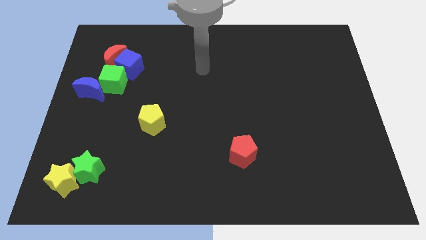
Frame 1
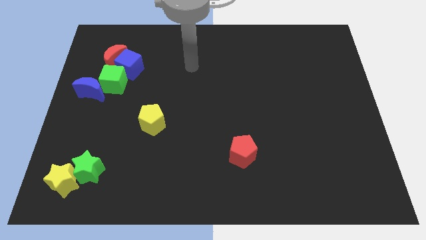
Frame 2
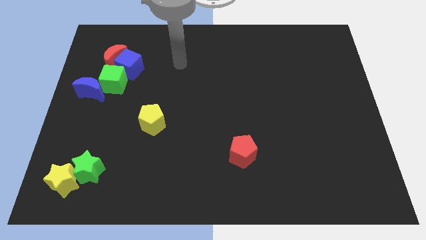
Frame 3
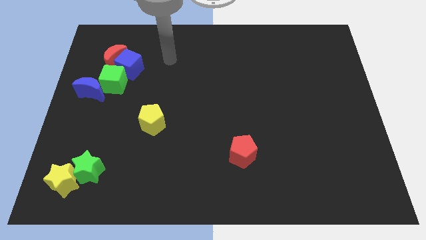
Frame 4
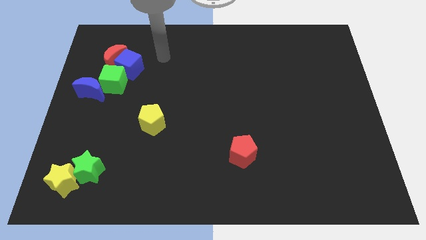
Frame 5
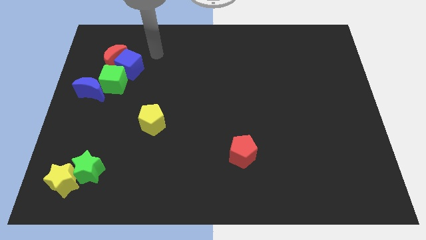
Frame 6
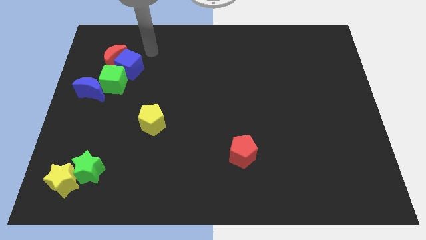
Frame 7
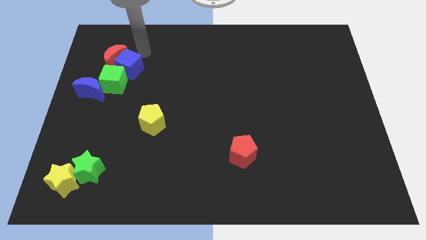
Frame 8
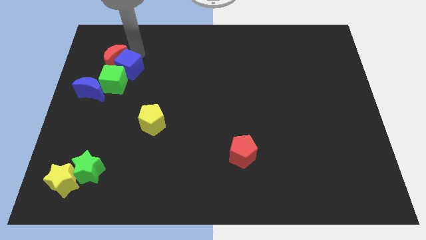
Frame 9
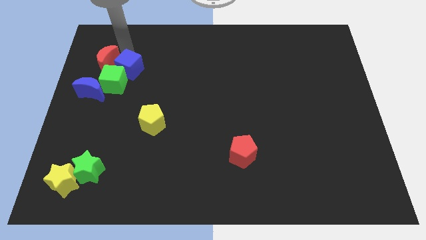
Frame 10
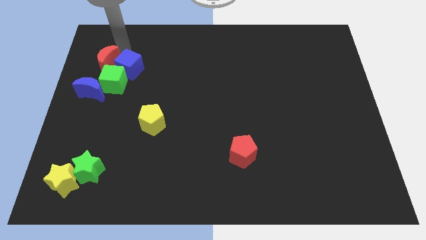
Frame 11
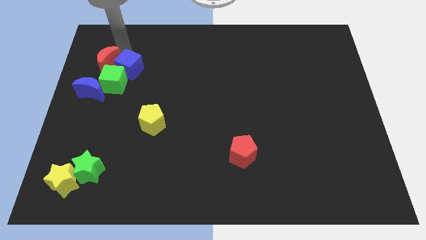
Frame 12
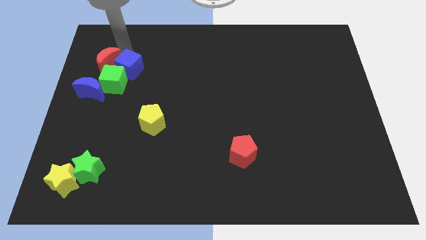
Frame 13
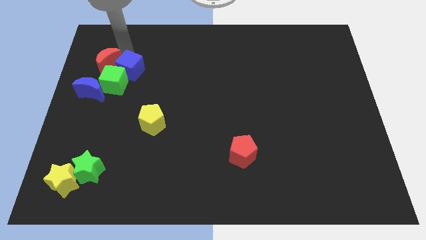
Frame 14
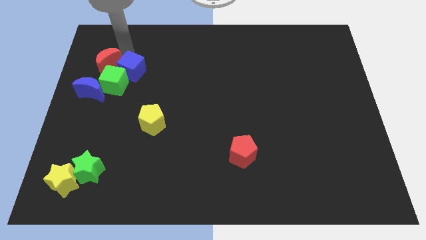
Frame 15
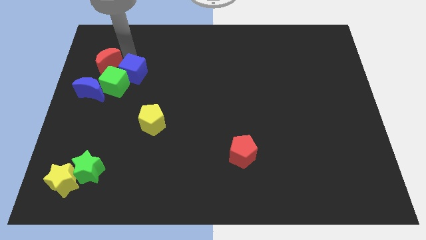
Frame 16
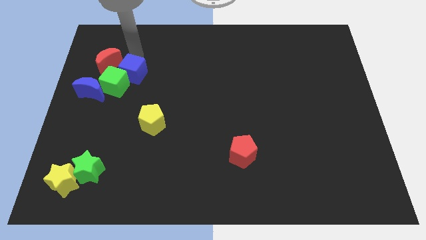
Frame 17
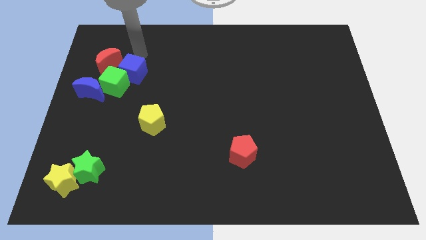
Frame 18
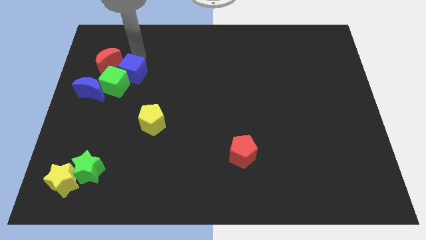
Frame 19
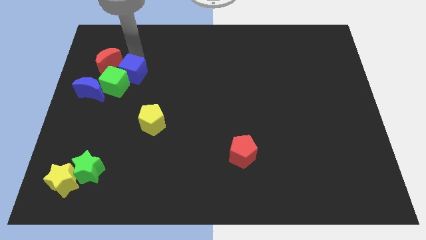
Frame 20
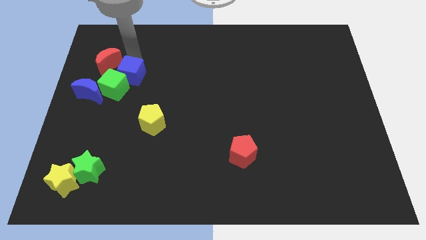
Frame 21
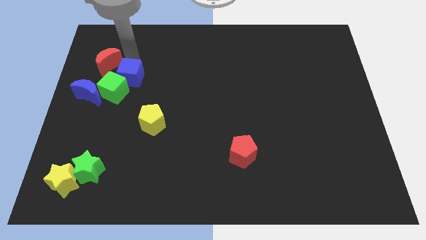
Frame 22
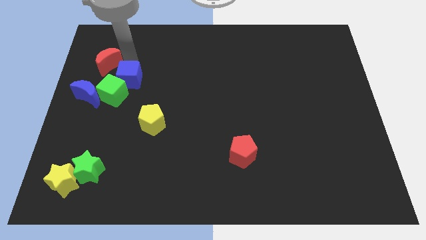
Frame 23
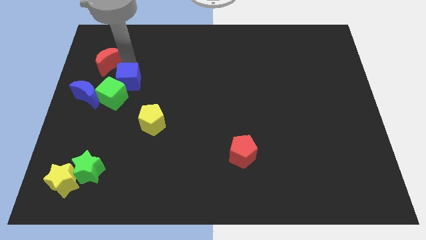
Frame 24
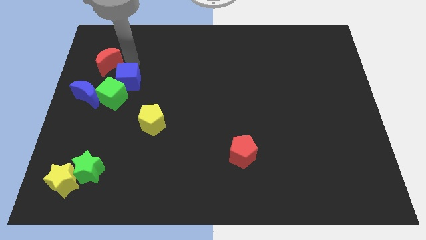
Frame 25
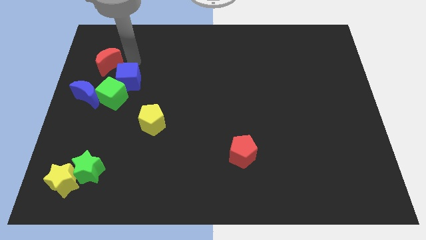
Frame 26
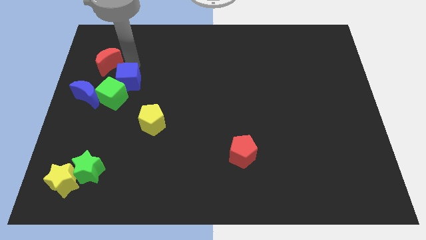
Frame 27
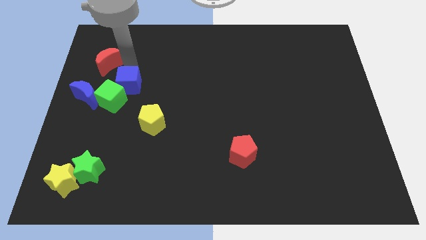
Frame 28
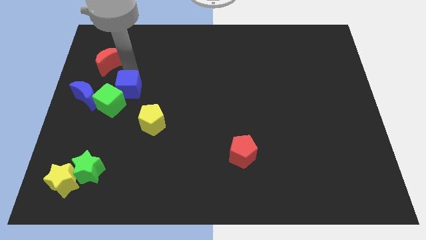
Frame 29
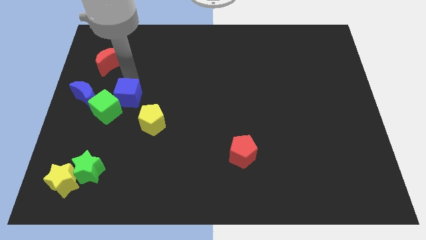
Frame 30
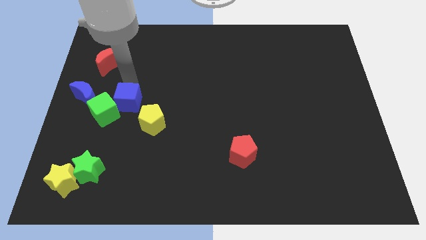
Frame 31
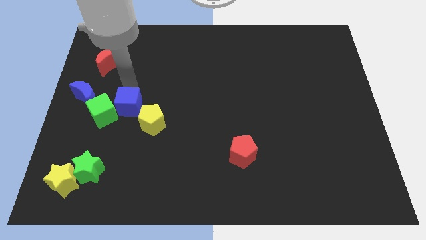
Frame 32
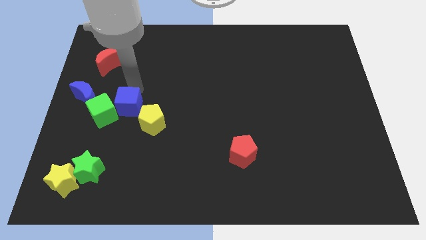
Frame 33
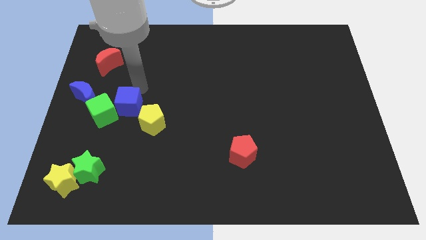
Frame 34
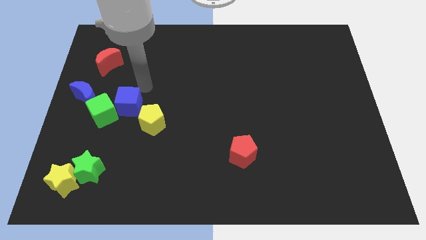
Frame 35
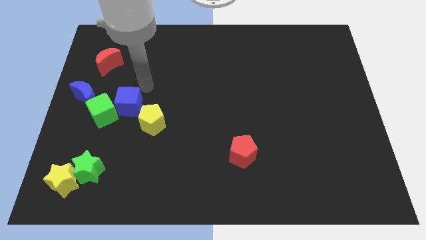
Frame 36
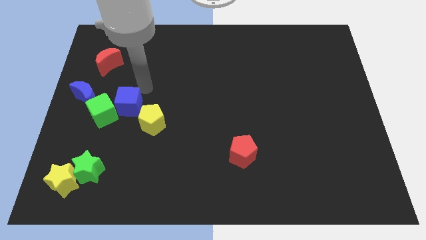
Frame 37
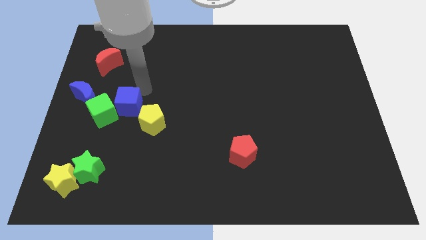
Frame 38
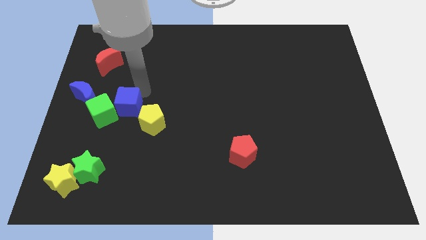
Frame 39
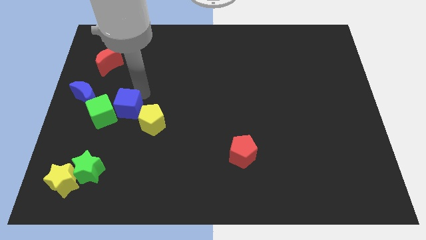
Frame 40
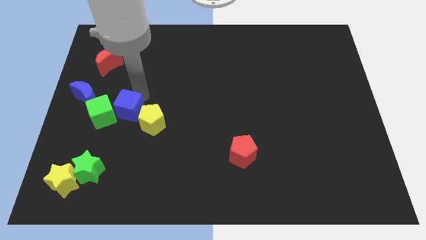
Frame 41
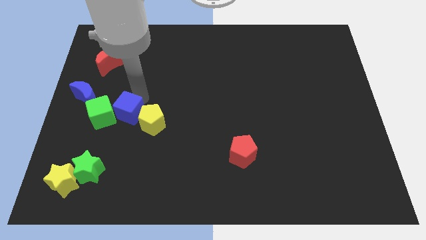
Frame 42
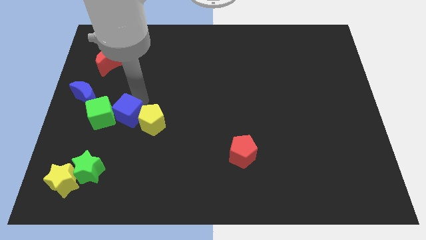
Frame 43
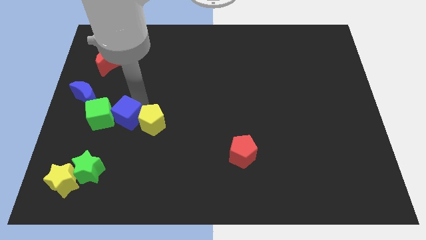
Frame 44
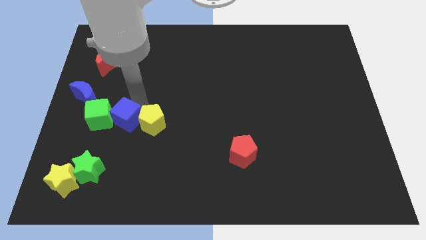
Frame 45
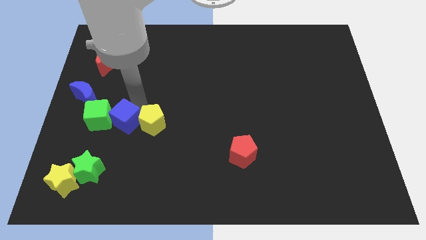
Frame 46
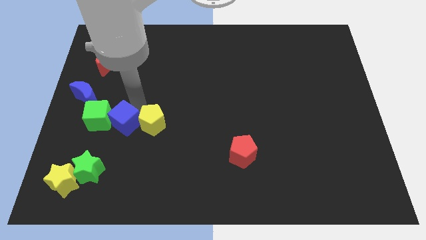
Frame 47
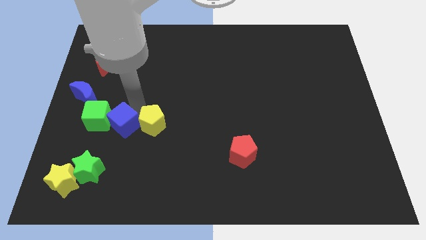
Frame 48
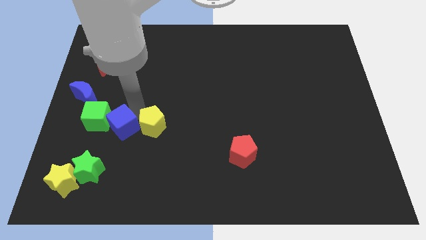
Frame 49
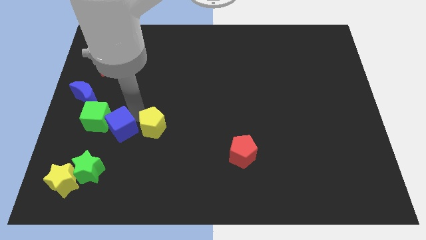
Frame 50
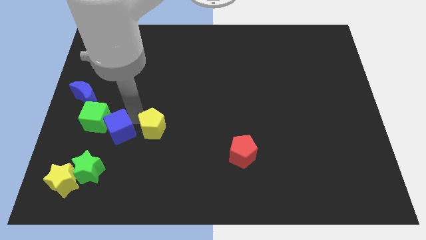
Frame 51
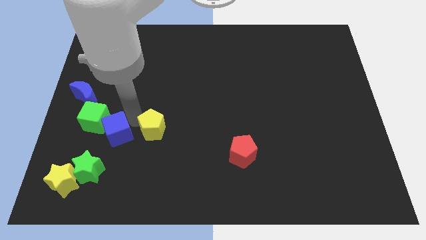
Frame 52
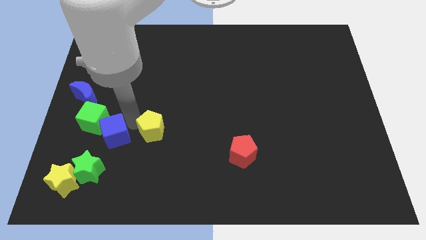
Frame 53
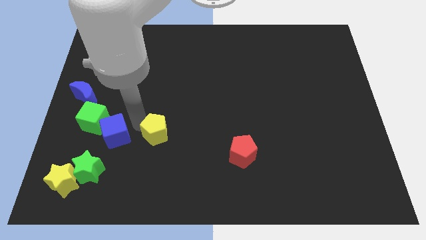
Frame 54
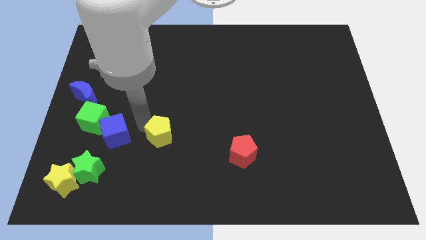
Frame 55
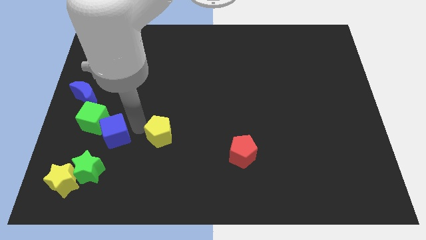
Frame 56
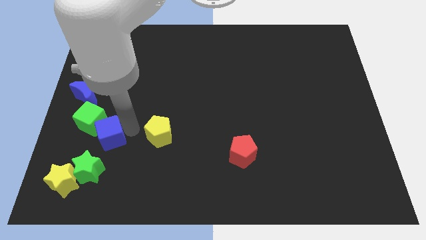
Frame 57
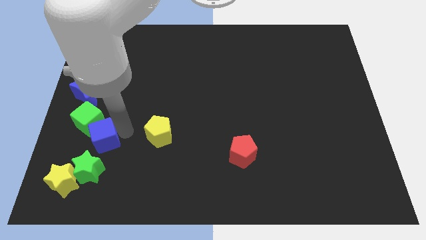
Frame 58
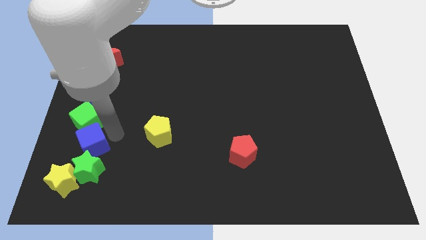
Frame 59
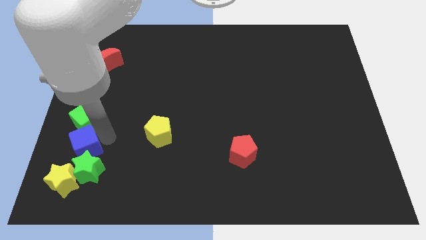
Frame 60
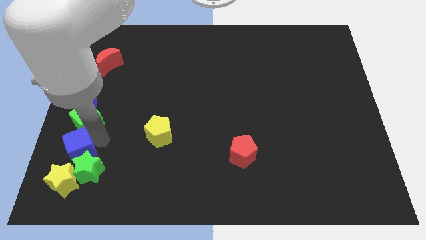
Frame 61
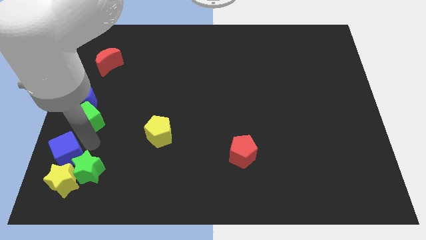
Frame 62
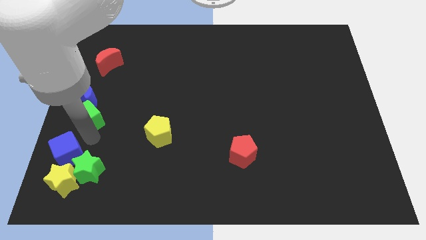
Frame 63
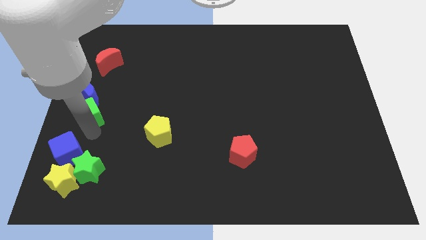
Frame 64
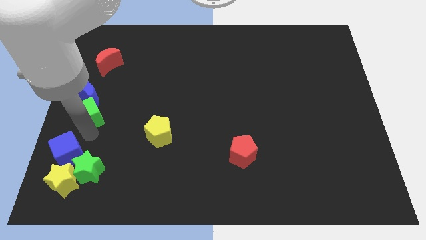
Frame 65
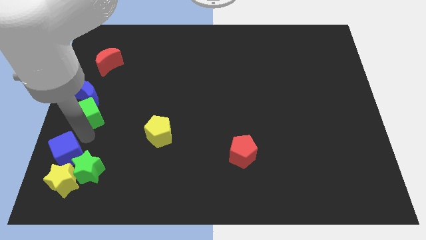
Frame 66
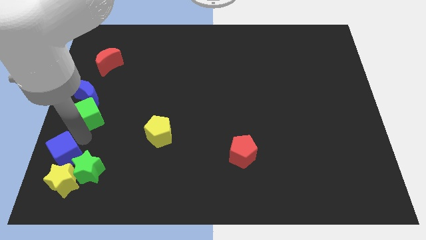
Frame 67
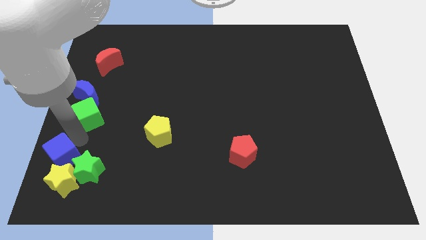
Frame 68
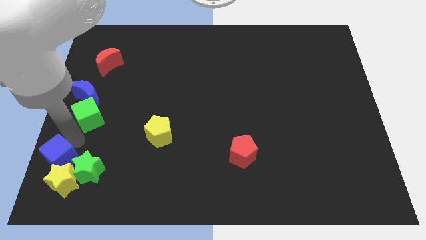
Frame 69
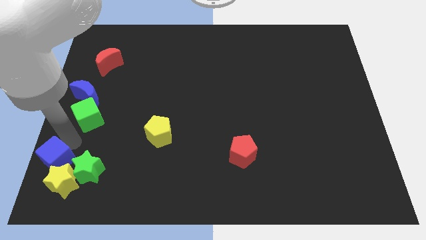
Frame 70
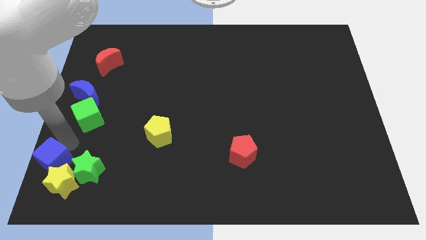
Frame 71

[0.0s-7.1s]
move the blue cube to the bottom left
